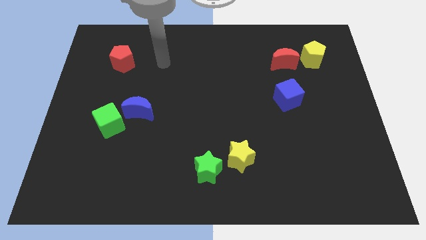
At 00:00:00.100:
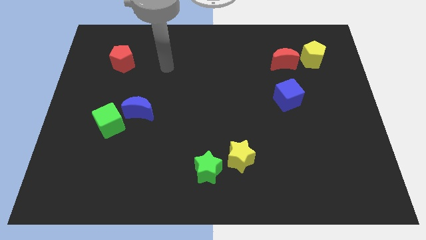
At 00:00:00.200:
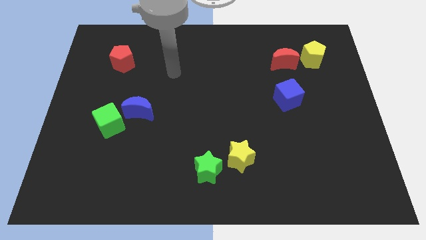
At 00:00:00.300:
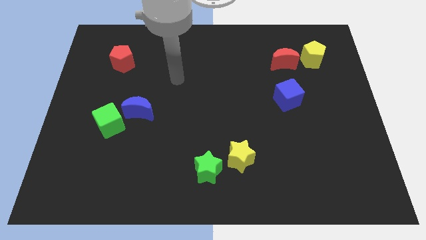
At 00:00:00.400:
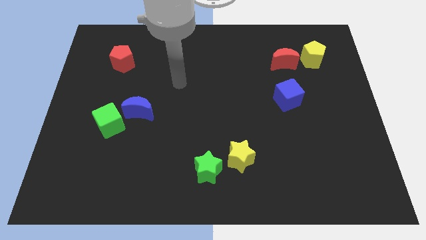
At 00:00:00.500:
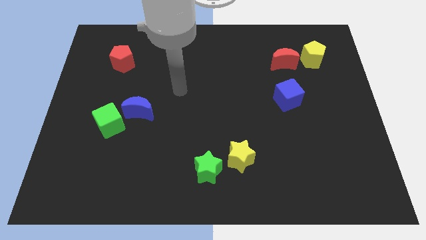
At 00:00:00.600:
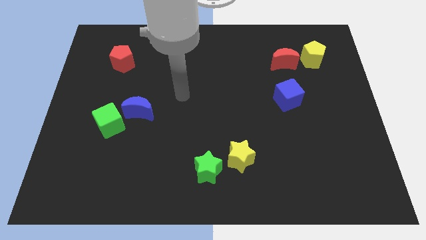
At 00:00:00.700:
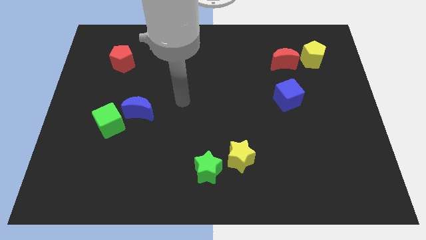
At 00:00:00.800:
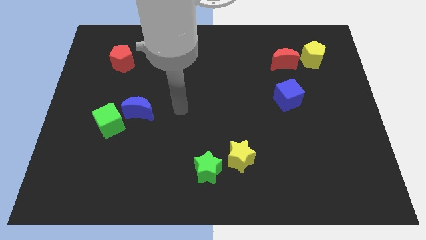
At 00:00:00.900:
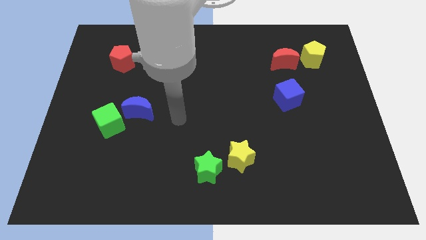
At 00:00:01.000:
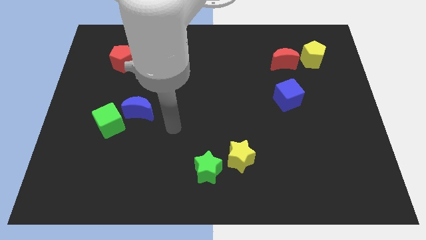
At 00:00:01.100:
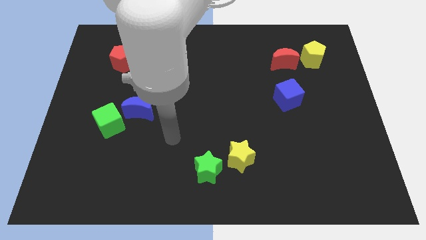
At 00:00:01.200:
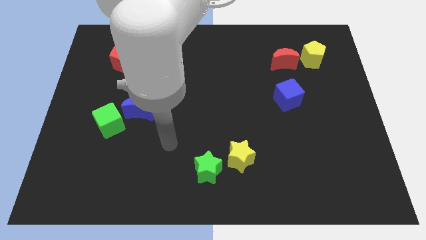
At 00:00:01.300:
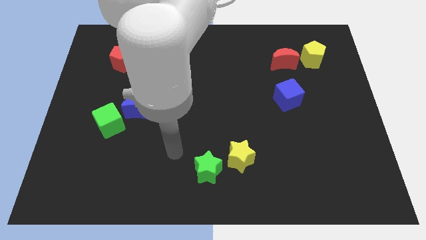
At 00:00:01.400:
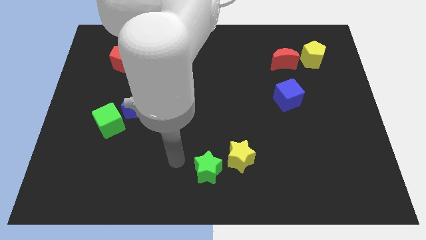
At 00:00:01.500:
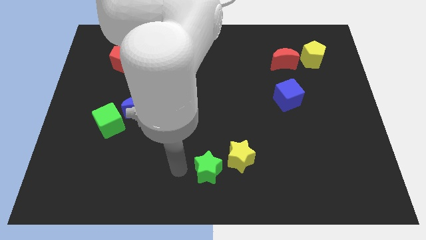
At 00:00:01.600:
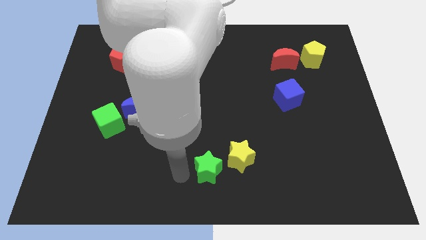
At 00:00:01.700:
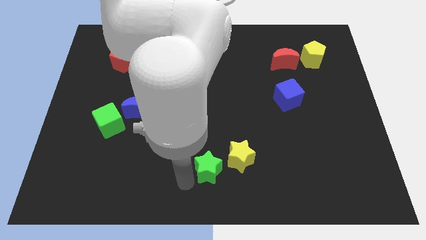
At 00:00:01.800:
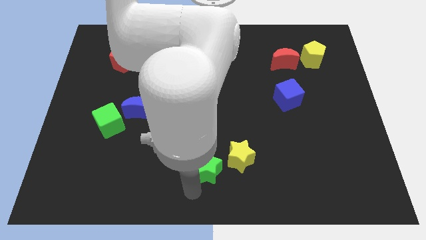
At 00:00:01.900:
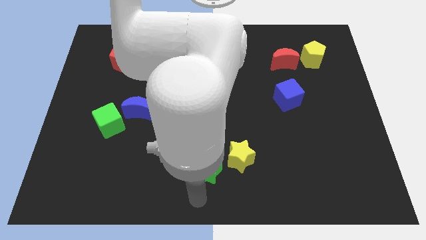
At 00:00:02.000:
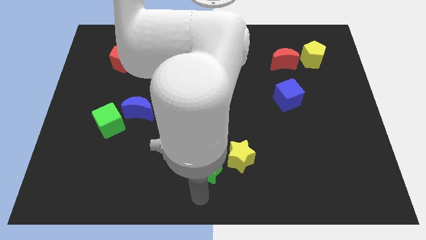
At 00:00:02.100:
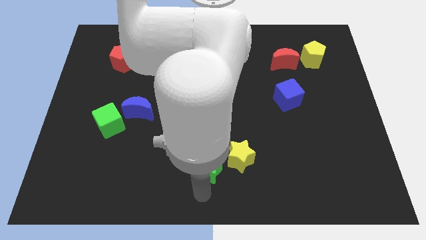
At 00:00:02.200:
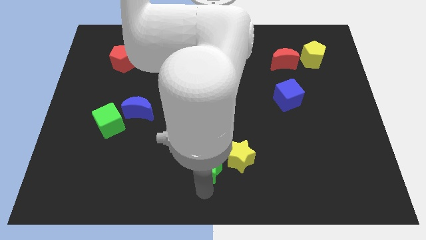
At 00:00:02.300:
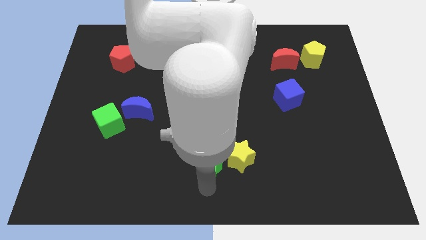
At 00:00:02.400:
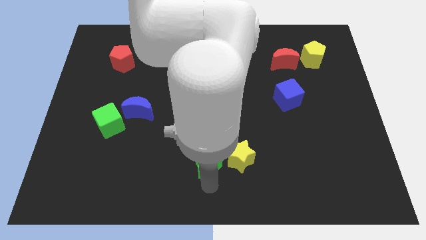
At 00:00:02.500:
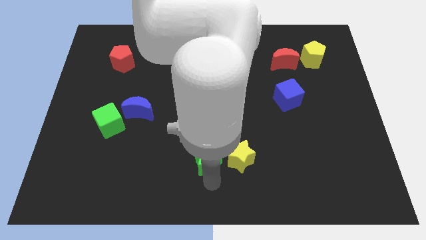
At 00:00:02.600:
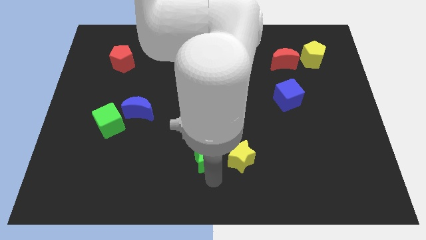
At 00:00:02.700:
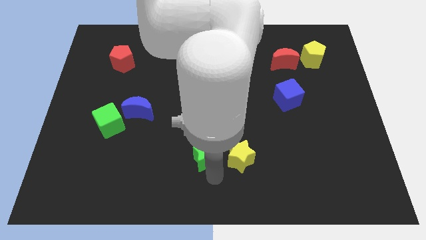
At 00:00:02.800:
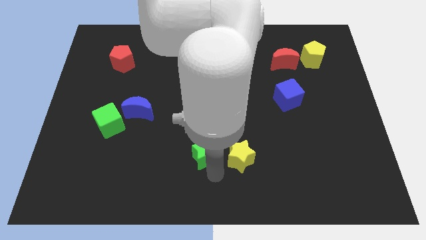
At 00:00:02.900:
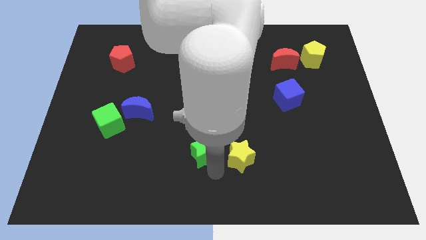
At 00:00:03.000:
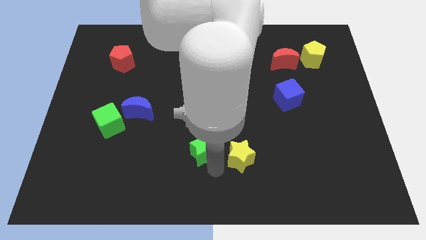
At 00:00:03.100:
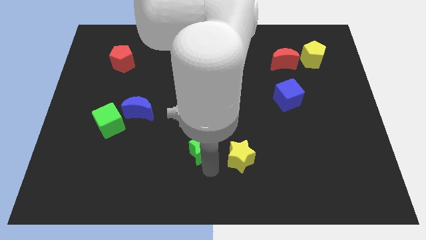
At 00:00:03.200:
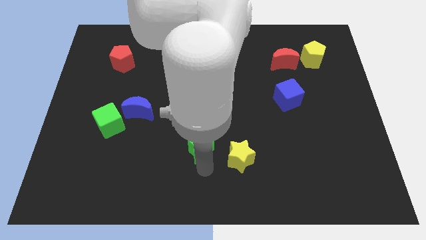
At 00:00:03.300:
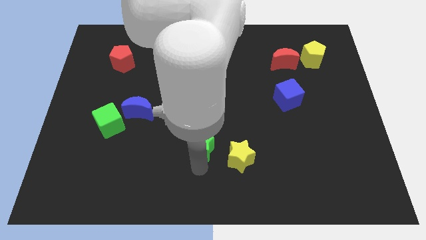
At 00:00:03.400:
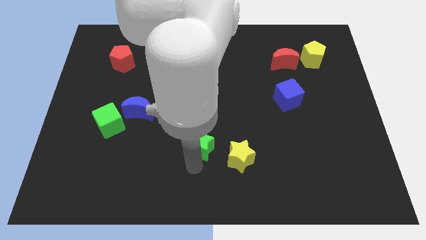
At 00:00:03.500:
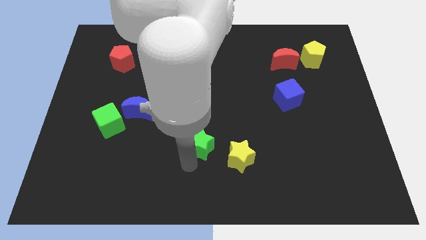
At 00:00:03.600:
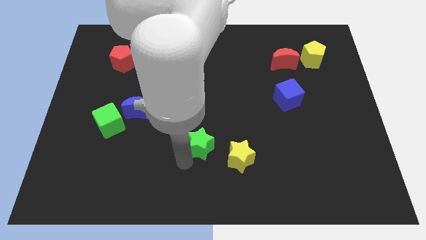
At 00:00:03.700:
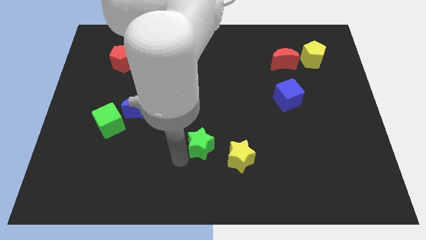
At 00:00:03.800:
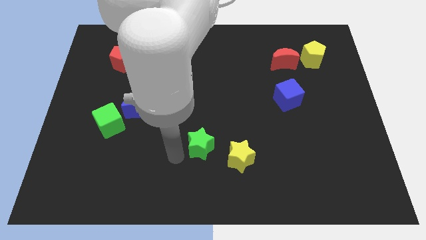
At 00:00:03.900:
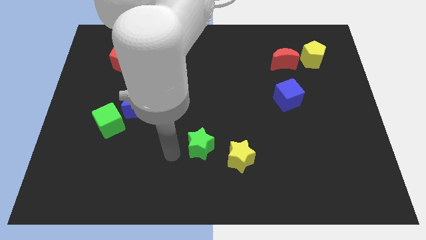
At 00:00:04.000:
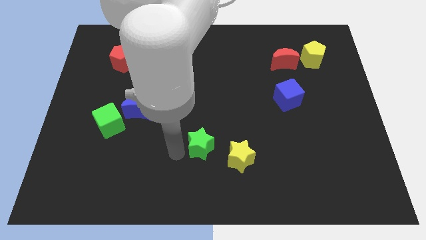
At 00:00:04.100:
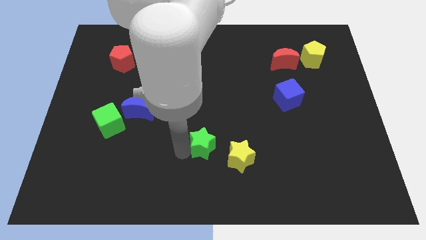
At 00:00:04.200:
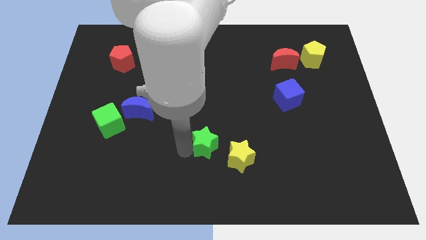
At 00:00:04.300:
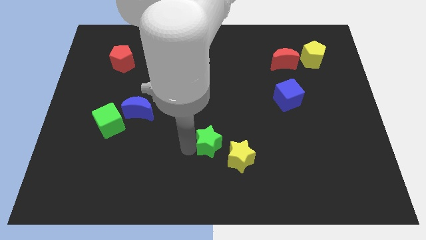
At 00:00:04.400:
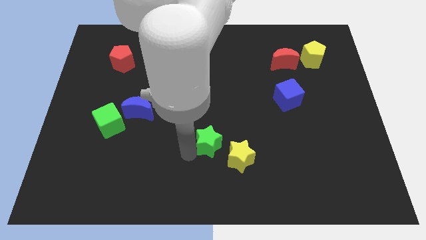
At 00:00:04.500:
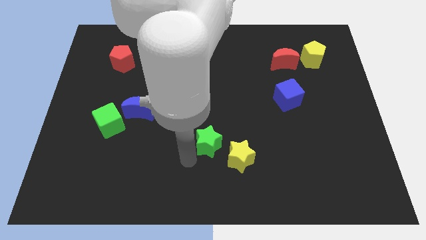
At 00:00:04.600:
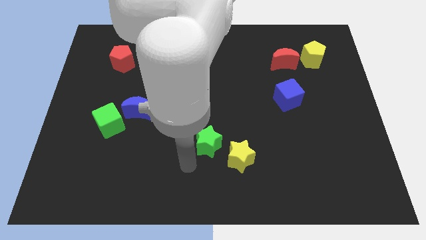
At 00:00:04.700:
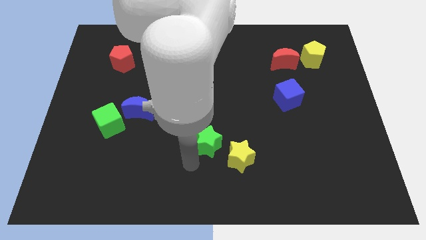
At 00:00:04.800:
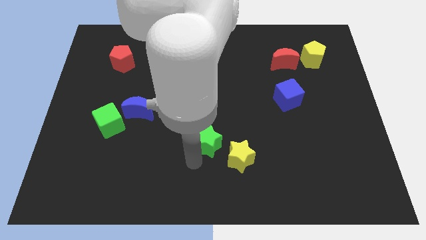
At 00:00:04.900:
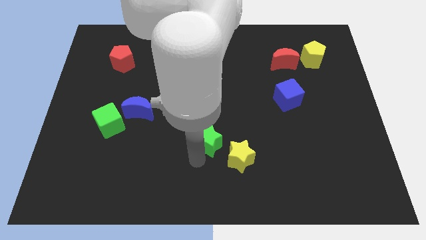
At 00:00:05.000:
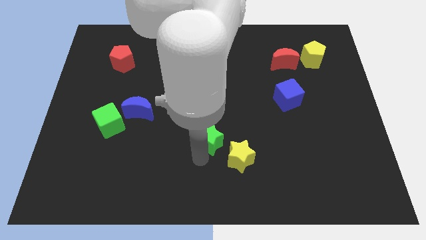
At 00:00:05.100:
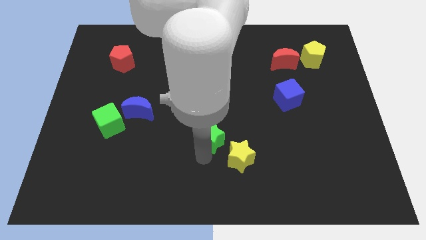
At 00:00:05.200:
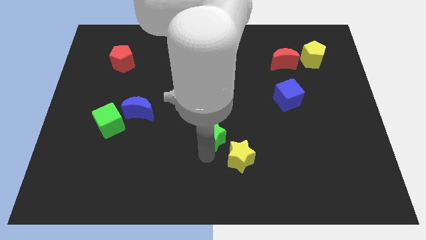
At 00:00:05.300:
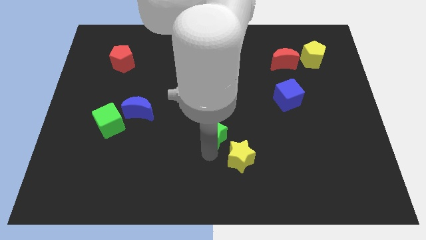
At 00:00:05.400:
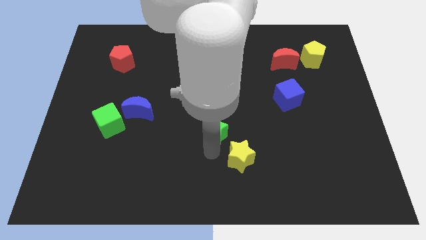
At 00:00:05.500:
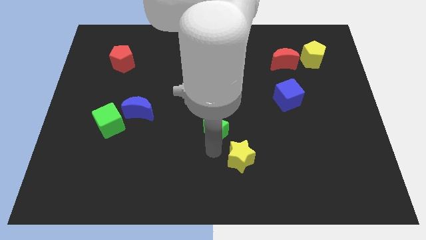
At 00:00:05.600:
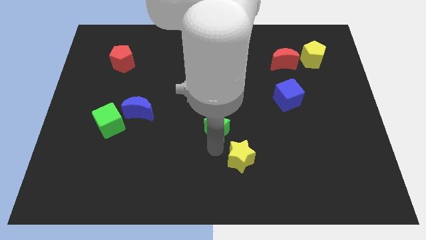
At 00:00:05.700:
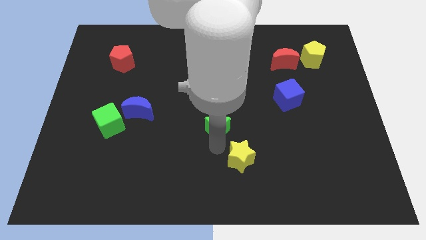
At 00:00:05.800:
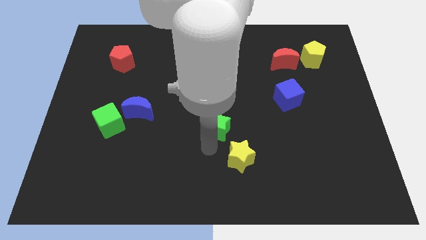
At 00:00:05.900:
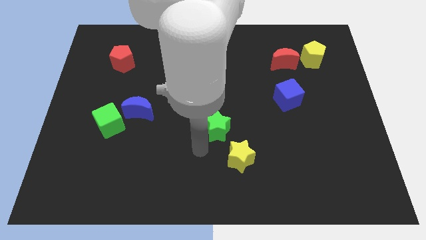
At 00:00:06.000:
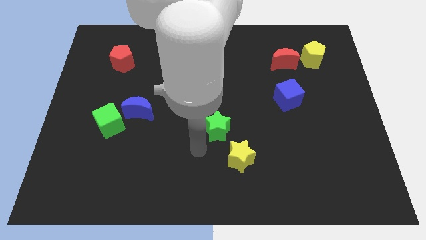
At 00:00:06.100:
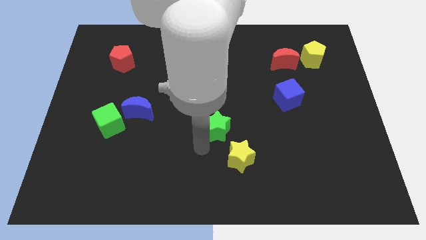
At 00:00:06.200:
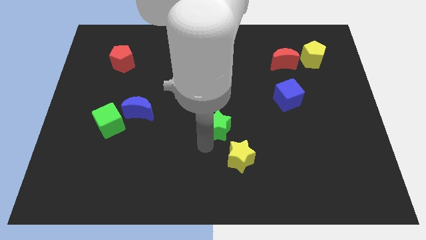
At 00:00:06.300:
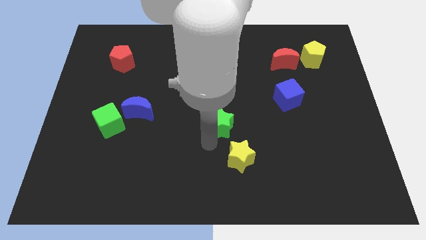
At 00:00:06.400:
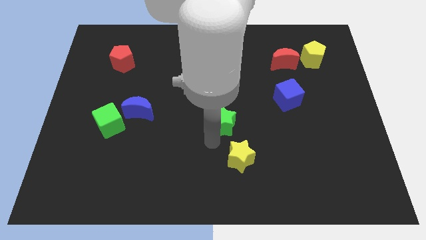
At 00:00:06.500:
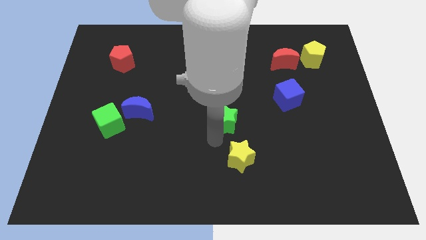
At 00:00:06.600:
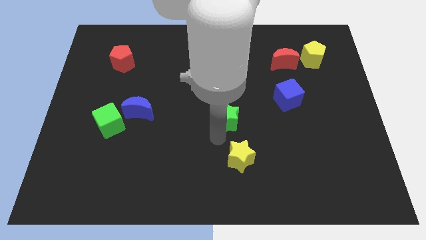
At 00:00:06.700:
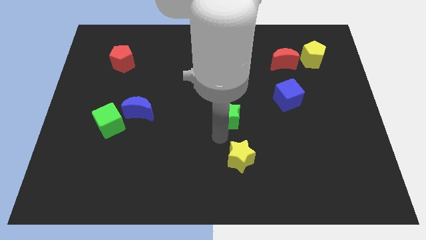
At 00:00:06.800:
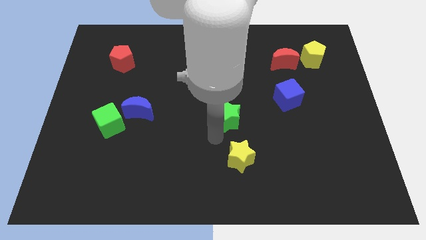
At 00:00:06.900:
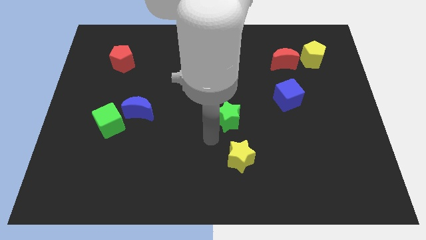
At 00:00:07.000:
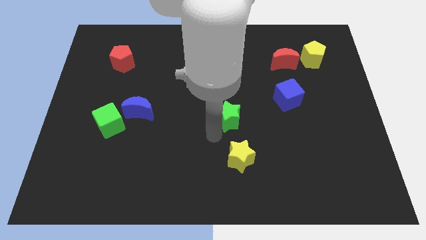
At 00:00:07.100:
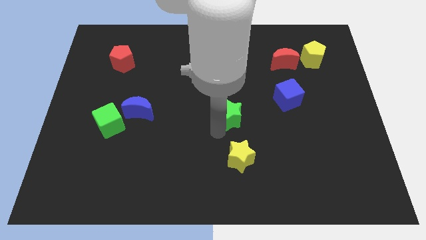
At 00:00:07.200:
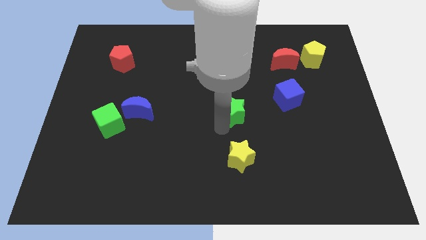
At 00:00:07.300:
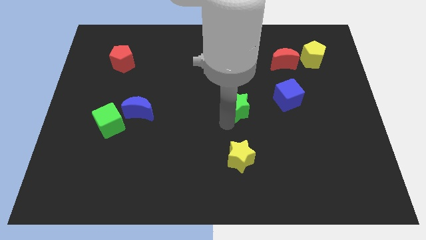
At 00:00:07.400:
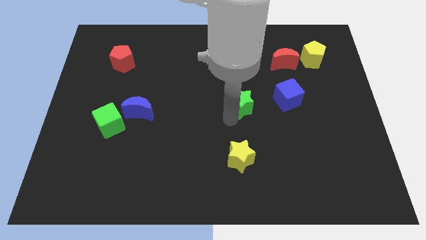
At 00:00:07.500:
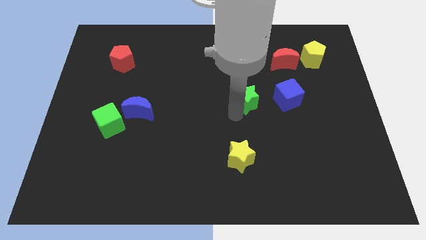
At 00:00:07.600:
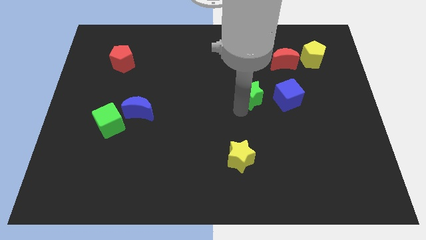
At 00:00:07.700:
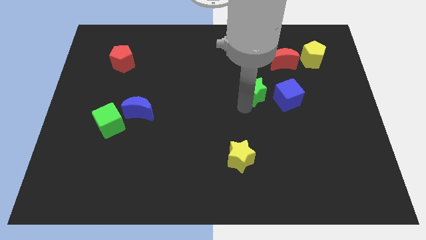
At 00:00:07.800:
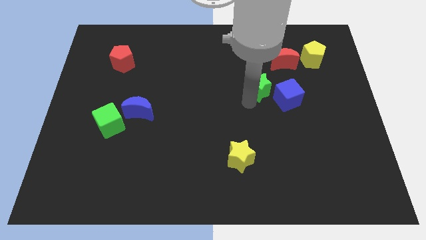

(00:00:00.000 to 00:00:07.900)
push the green star to the bottom left of the red moon
